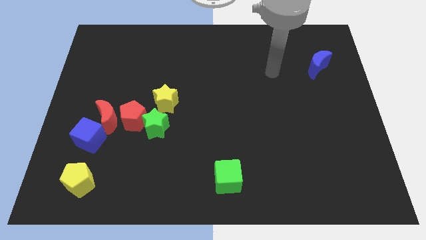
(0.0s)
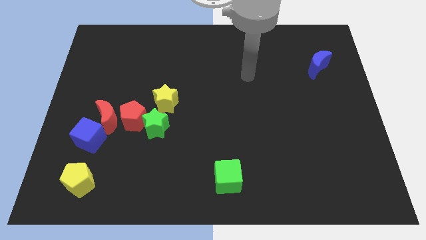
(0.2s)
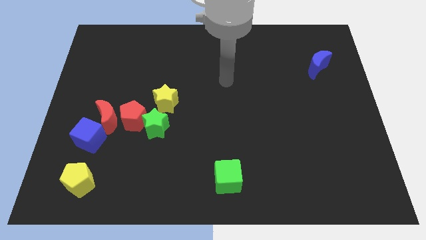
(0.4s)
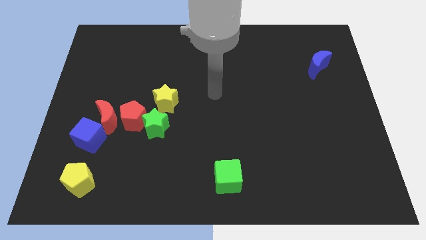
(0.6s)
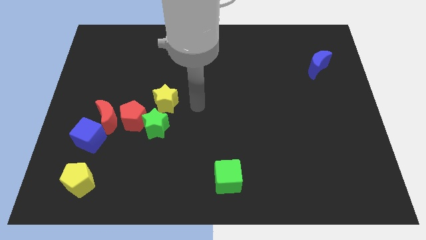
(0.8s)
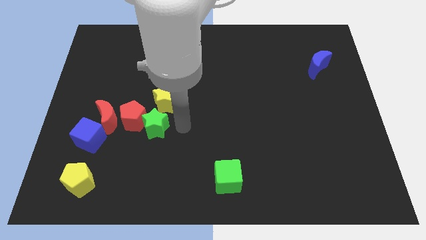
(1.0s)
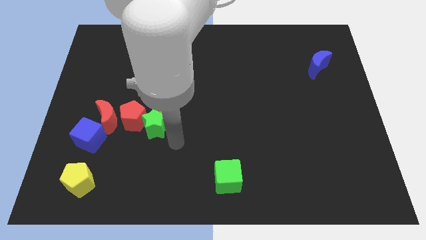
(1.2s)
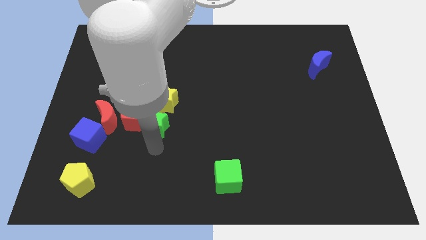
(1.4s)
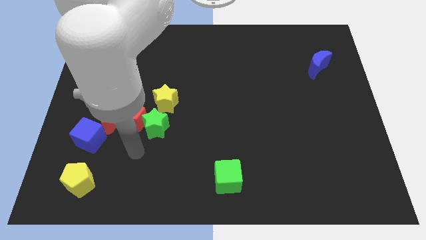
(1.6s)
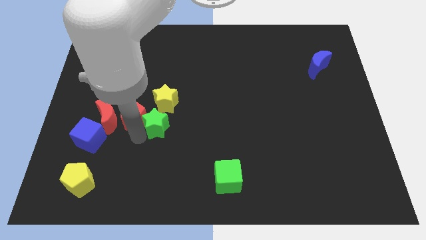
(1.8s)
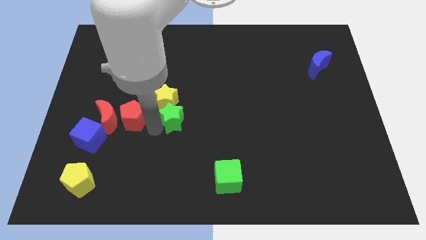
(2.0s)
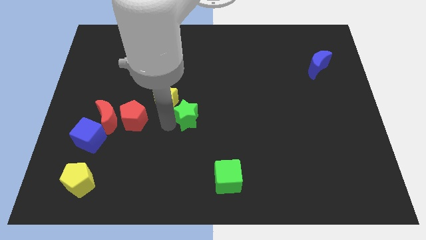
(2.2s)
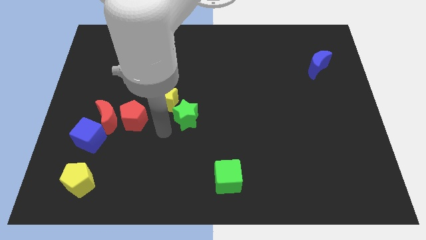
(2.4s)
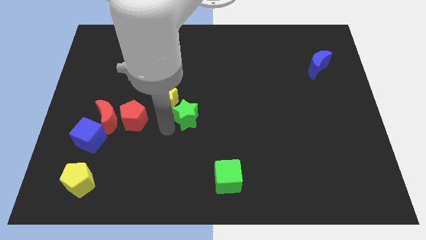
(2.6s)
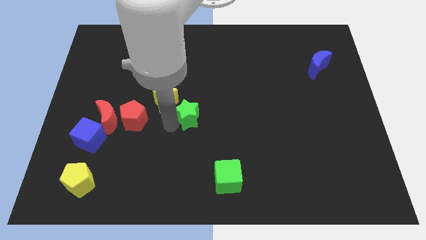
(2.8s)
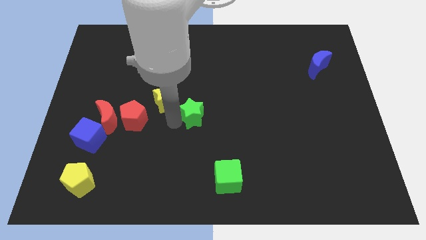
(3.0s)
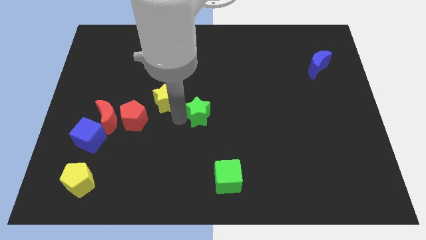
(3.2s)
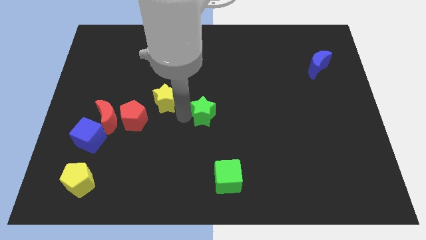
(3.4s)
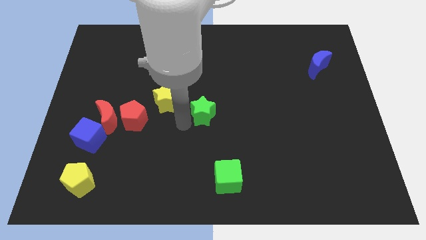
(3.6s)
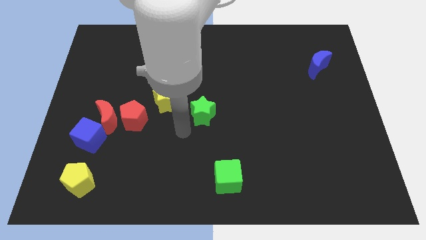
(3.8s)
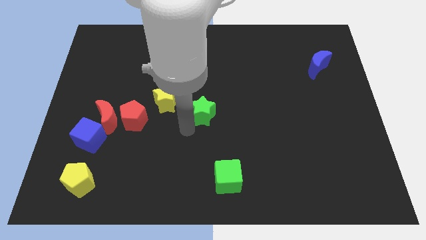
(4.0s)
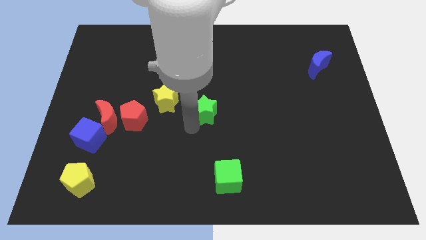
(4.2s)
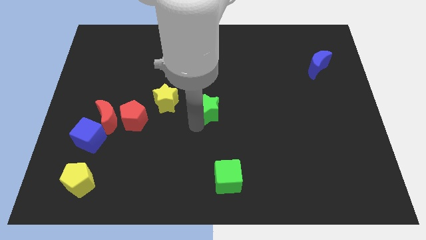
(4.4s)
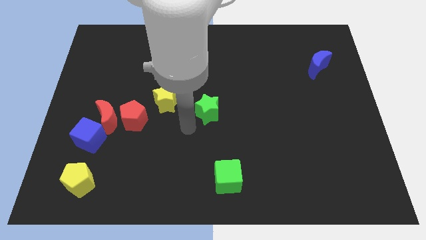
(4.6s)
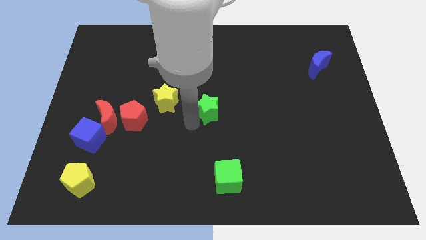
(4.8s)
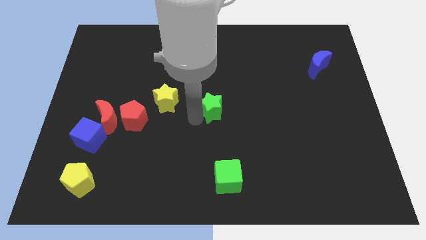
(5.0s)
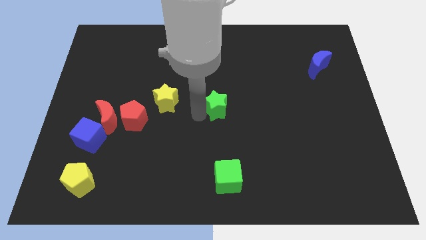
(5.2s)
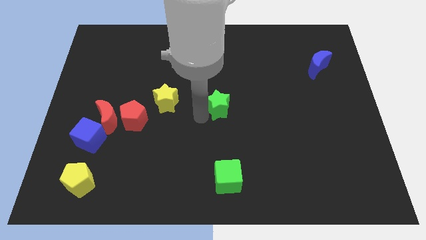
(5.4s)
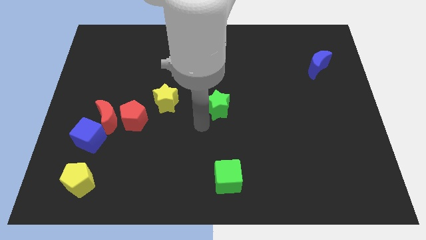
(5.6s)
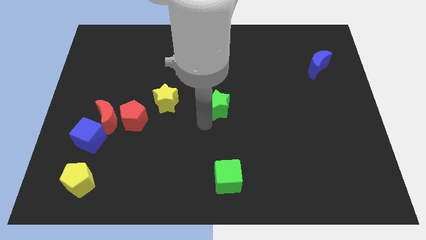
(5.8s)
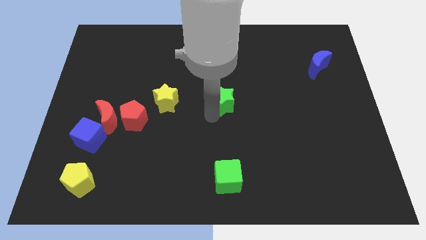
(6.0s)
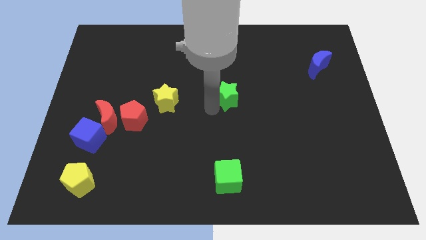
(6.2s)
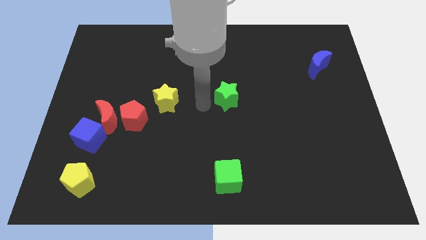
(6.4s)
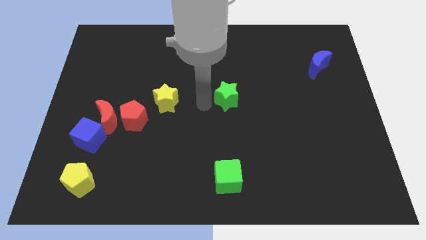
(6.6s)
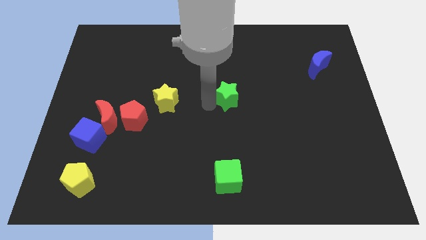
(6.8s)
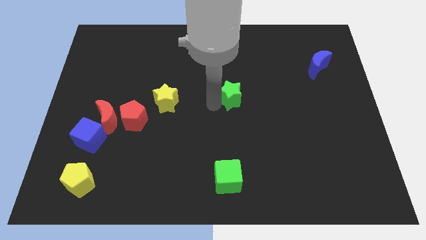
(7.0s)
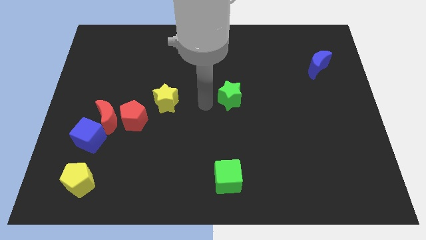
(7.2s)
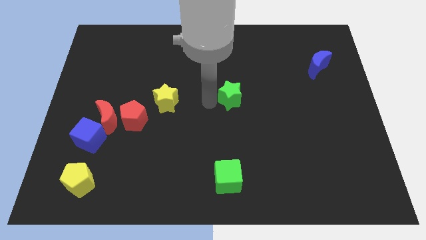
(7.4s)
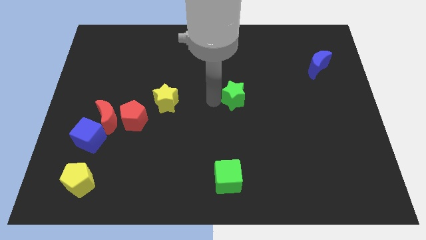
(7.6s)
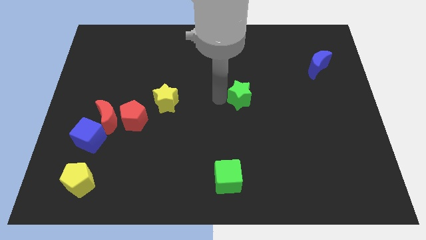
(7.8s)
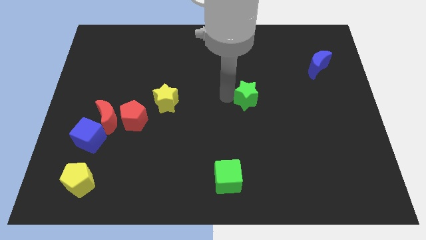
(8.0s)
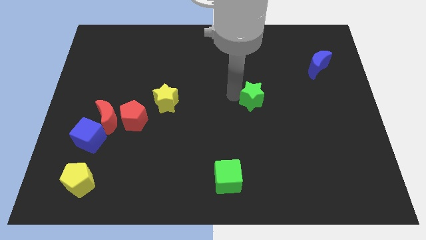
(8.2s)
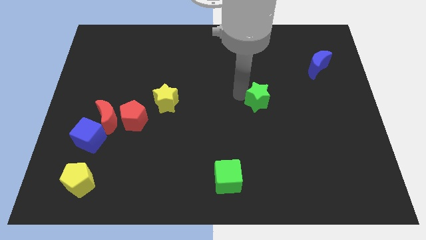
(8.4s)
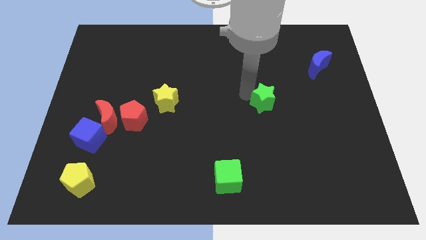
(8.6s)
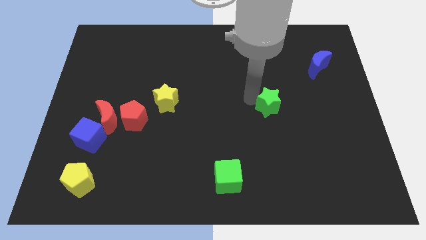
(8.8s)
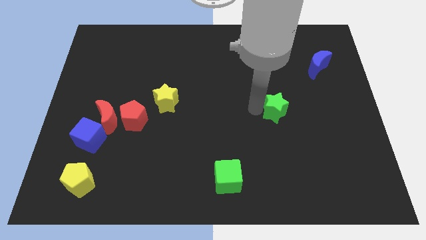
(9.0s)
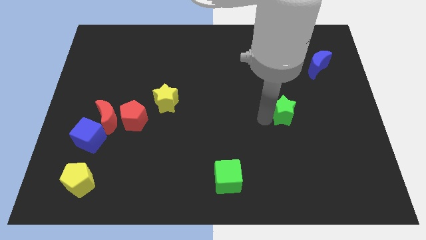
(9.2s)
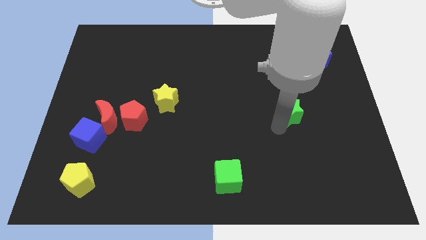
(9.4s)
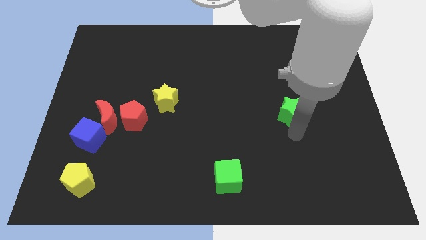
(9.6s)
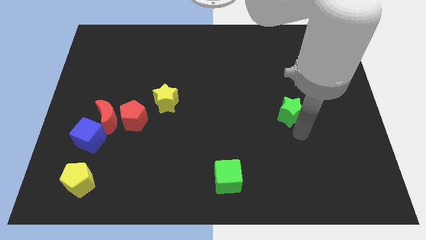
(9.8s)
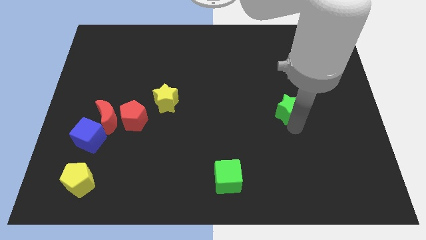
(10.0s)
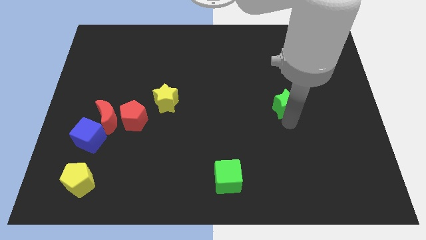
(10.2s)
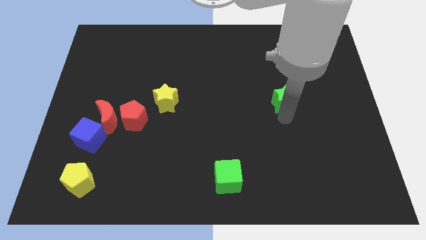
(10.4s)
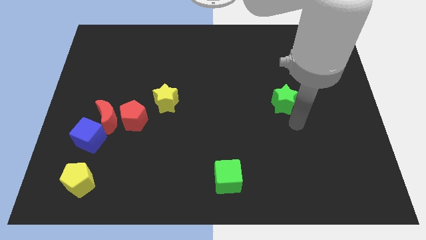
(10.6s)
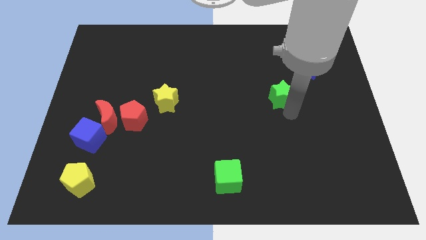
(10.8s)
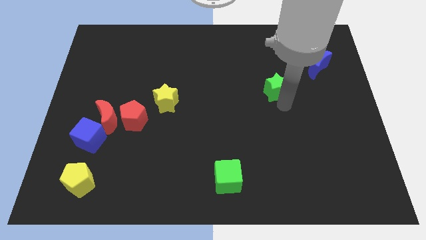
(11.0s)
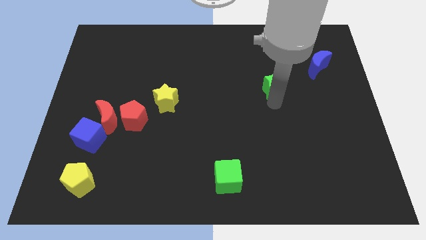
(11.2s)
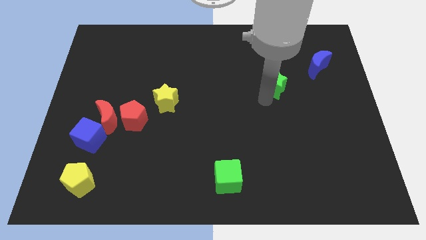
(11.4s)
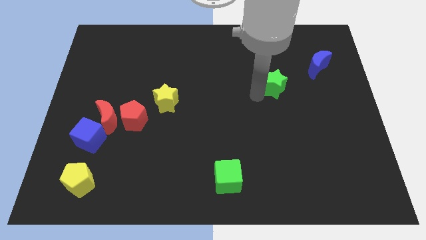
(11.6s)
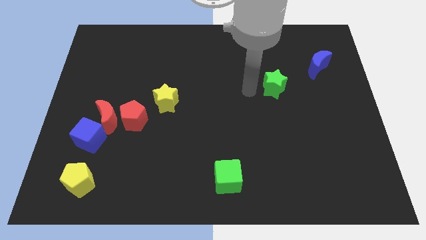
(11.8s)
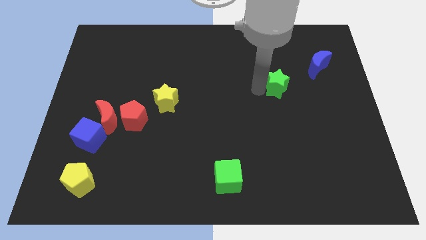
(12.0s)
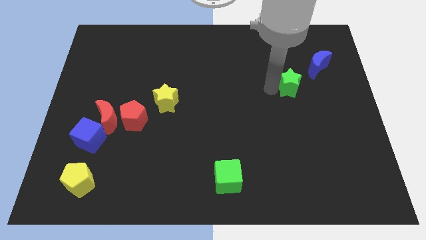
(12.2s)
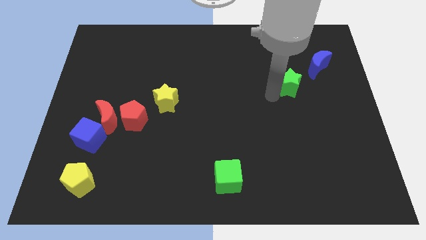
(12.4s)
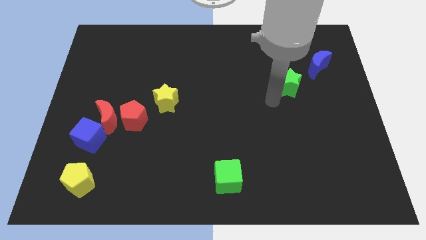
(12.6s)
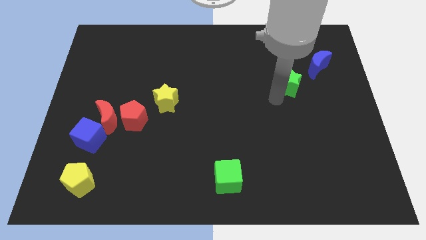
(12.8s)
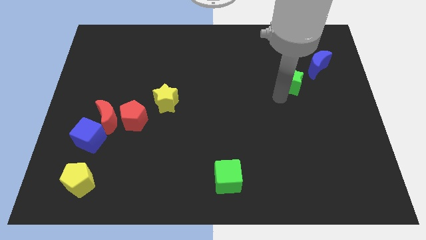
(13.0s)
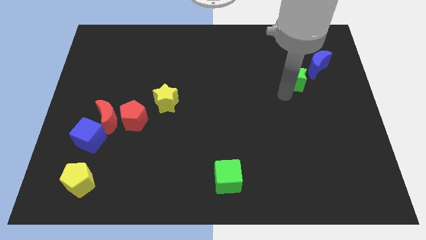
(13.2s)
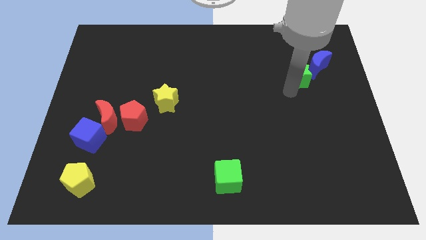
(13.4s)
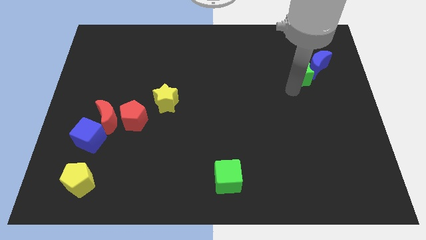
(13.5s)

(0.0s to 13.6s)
push the green star close to the blue moon
